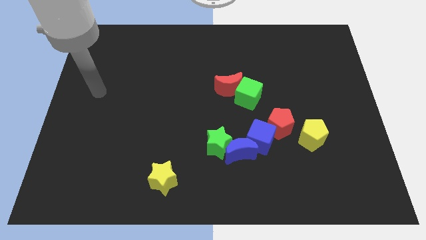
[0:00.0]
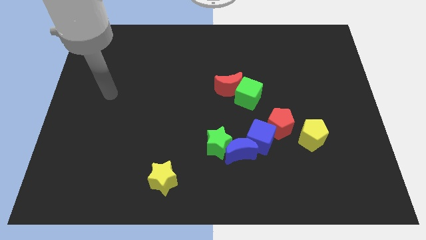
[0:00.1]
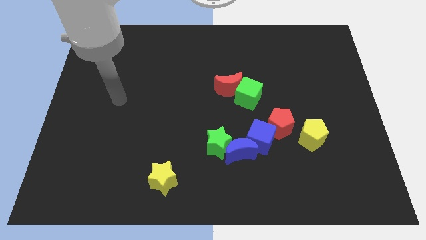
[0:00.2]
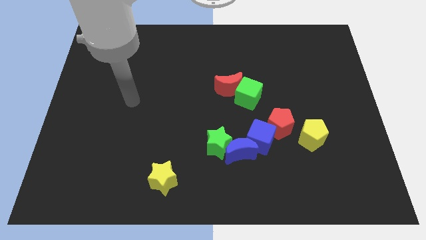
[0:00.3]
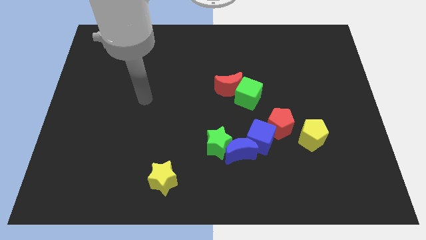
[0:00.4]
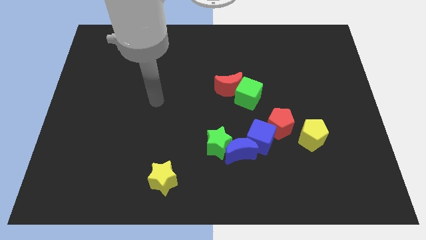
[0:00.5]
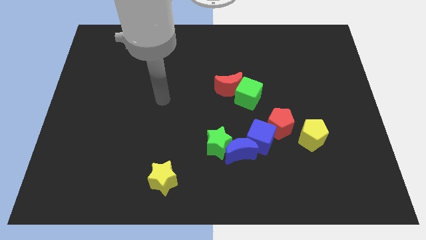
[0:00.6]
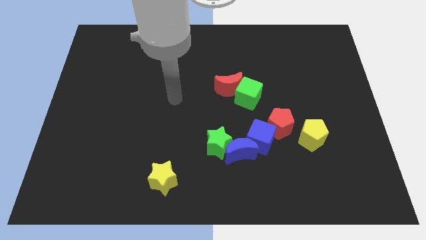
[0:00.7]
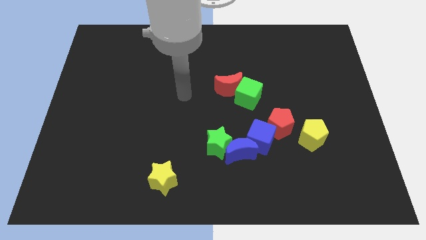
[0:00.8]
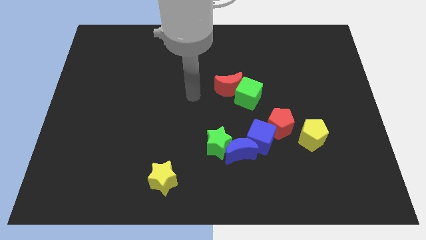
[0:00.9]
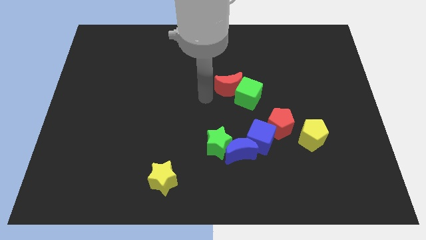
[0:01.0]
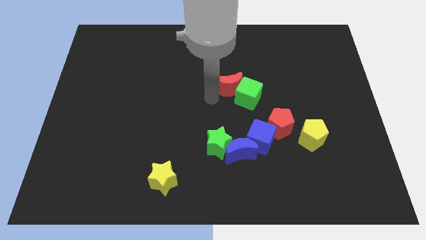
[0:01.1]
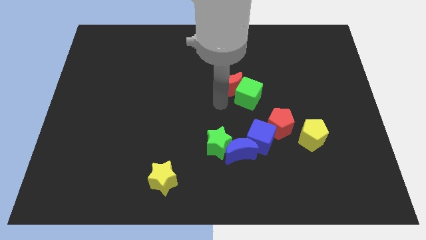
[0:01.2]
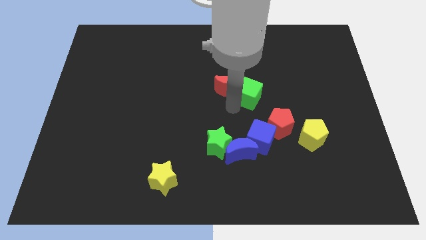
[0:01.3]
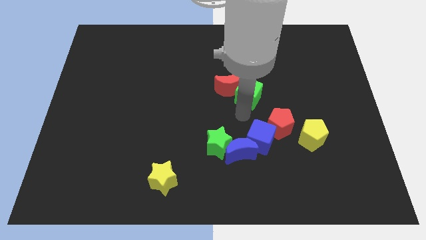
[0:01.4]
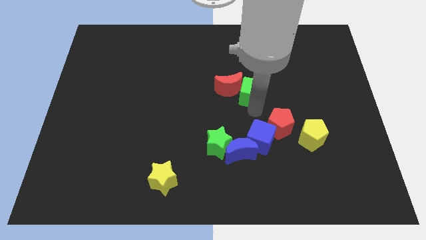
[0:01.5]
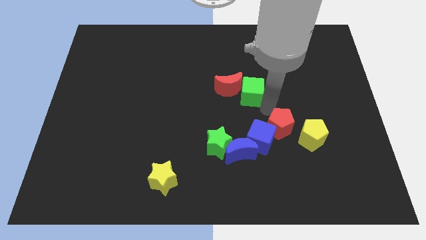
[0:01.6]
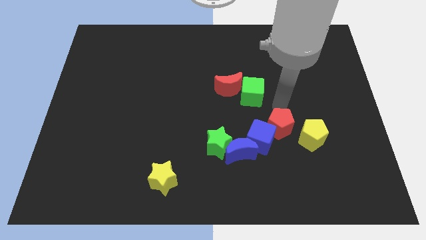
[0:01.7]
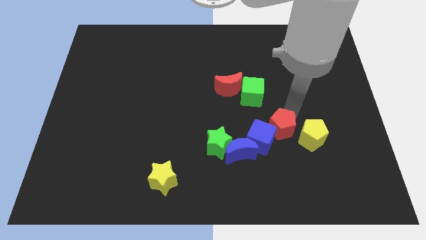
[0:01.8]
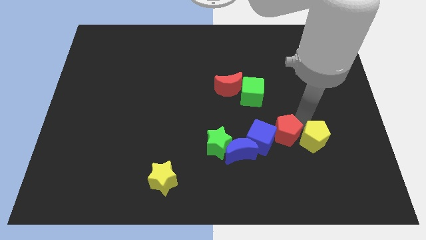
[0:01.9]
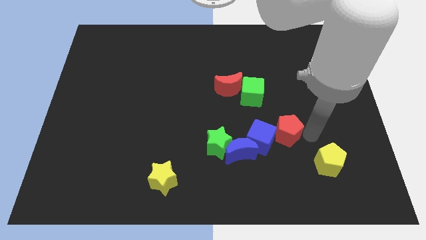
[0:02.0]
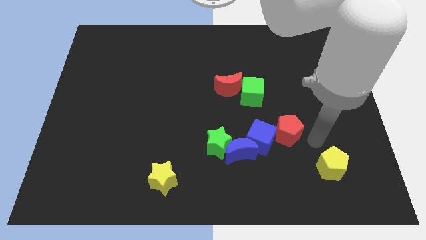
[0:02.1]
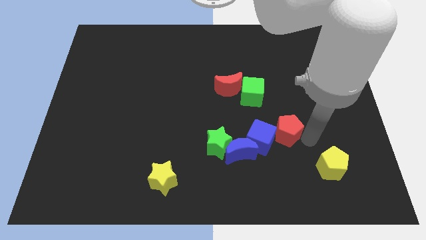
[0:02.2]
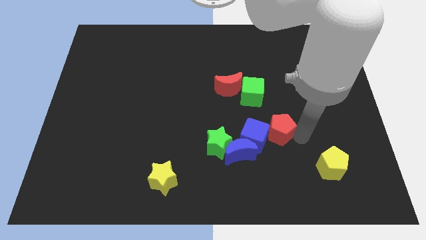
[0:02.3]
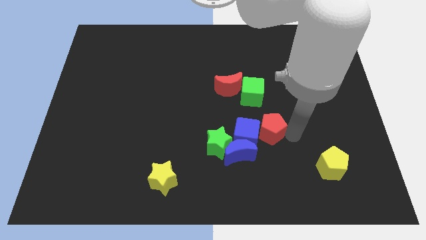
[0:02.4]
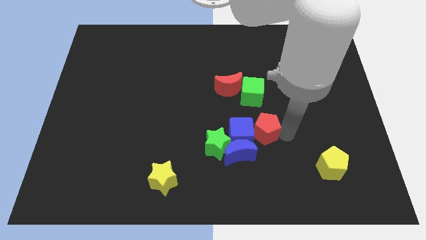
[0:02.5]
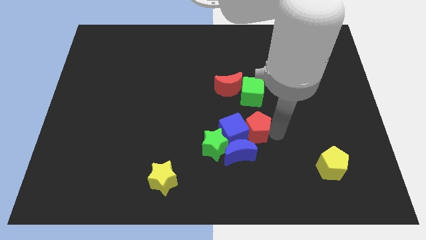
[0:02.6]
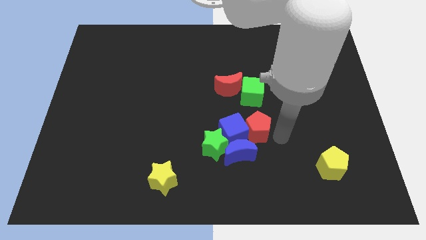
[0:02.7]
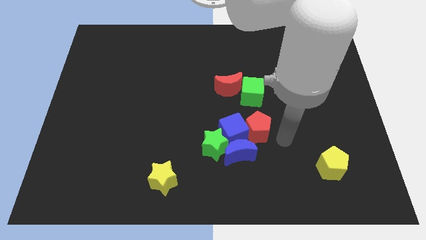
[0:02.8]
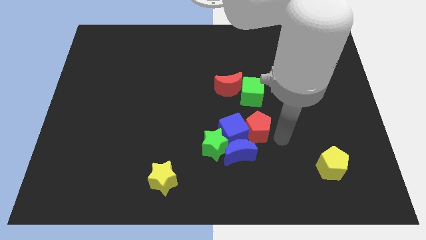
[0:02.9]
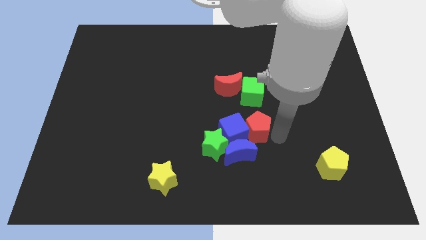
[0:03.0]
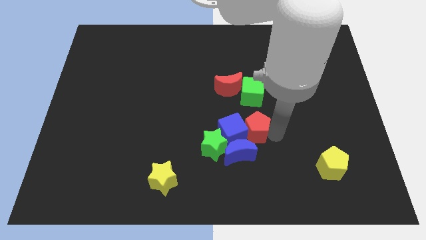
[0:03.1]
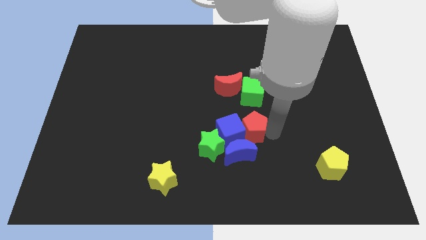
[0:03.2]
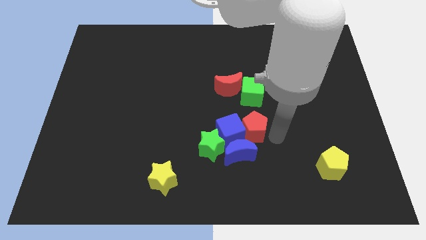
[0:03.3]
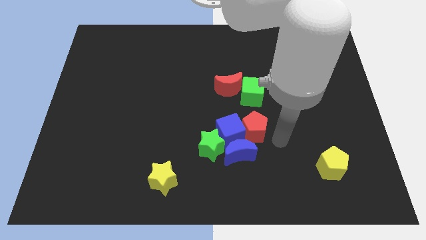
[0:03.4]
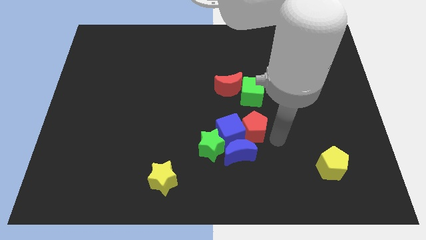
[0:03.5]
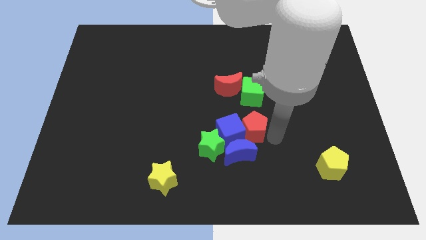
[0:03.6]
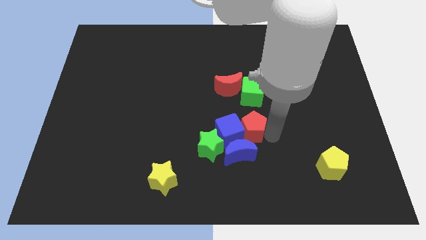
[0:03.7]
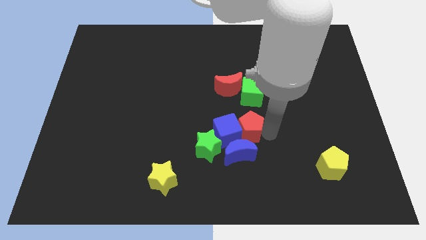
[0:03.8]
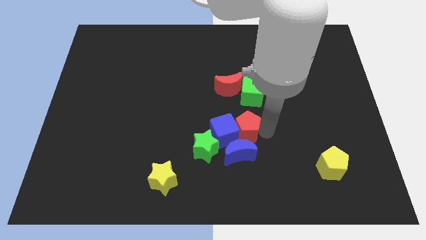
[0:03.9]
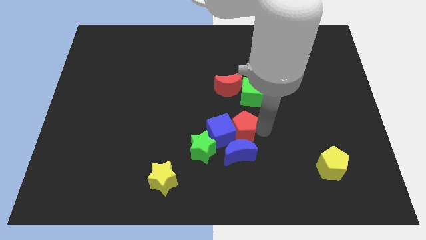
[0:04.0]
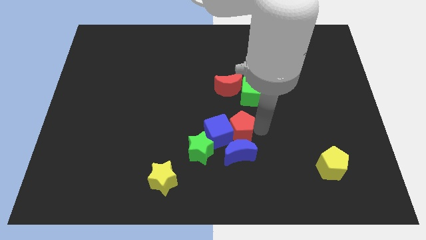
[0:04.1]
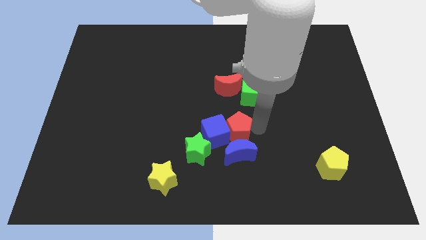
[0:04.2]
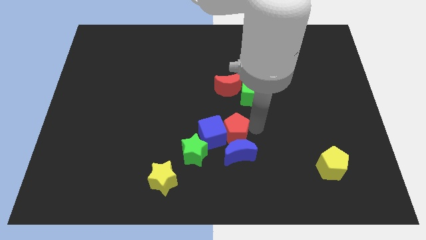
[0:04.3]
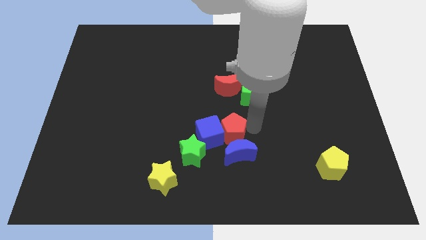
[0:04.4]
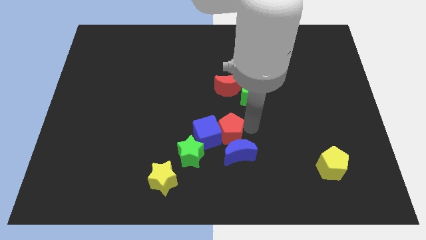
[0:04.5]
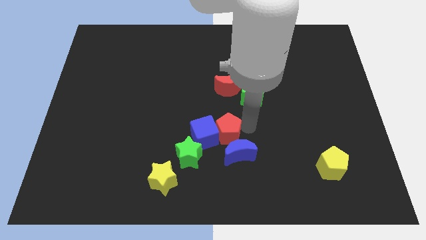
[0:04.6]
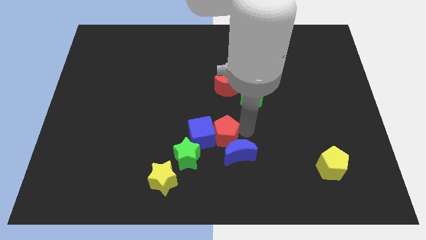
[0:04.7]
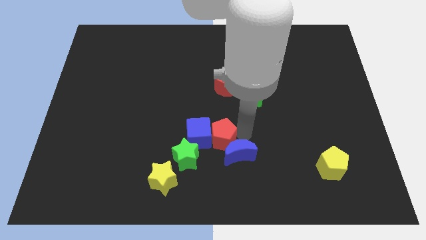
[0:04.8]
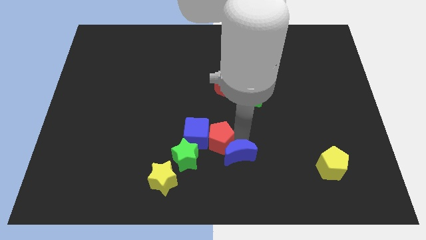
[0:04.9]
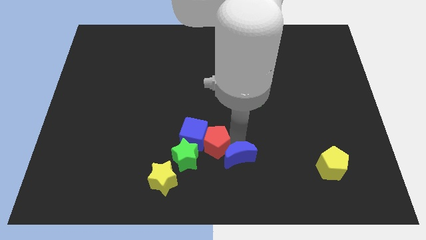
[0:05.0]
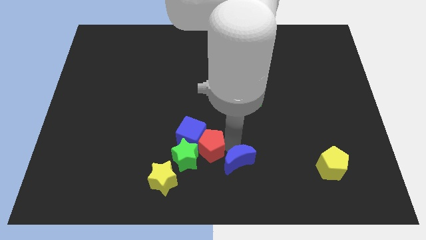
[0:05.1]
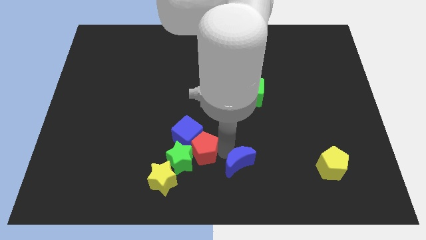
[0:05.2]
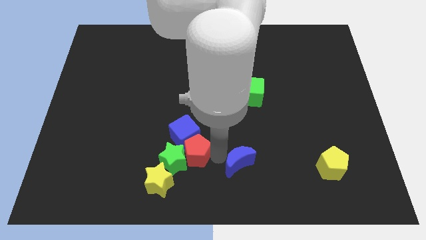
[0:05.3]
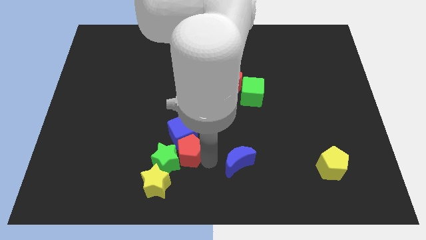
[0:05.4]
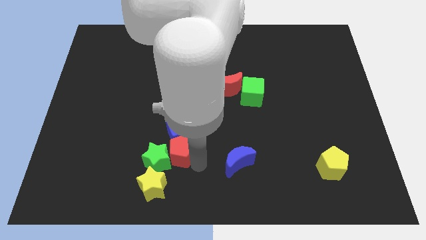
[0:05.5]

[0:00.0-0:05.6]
move the red pentagon to the left

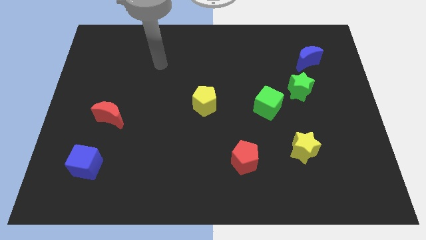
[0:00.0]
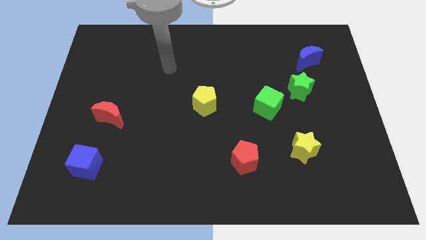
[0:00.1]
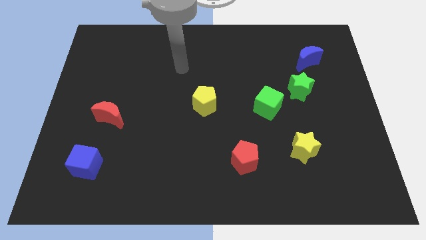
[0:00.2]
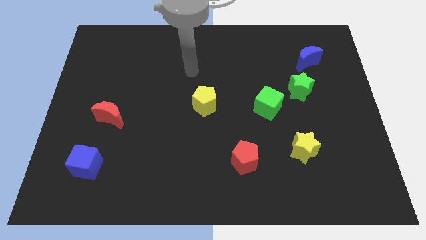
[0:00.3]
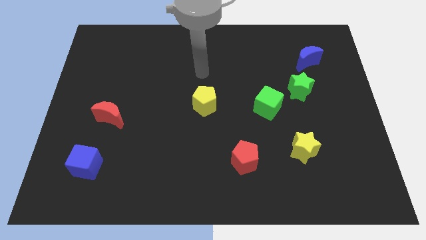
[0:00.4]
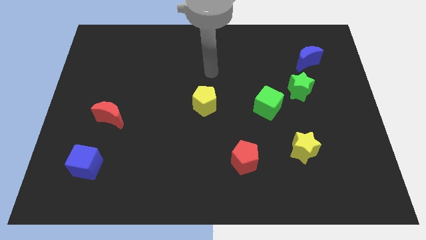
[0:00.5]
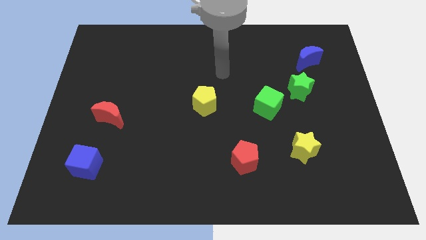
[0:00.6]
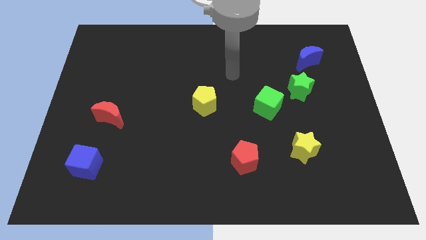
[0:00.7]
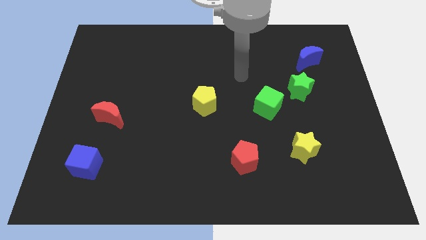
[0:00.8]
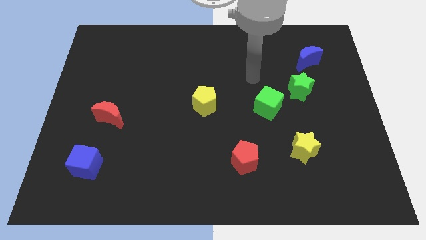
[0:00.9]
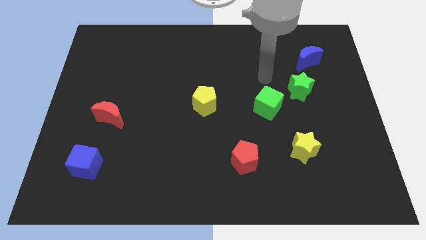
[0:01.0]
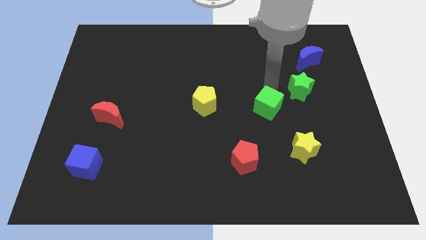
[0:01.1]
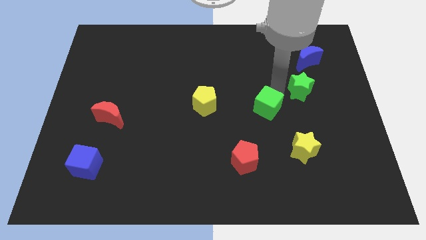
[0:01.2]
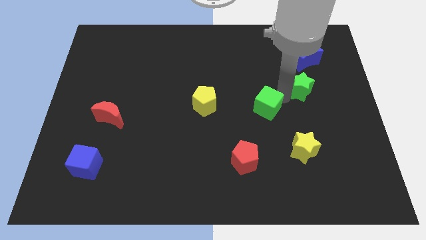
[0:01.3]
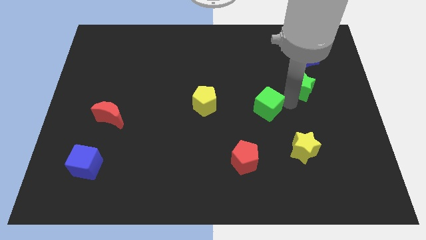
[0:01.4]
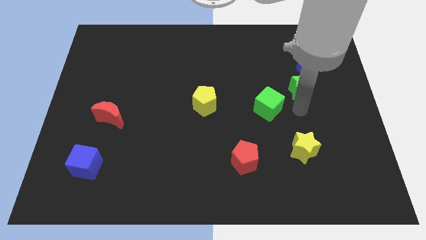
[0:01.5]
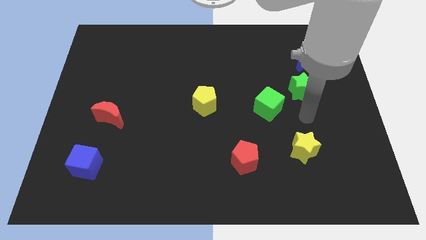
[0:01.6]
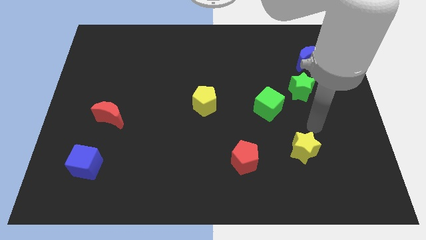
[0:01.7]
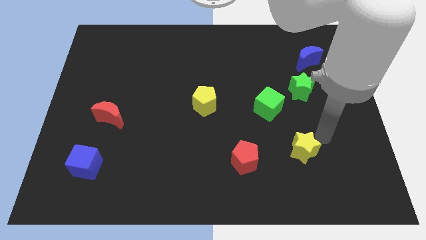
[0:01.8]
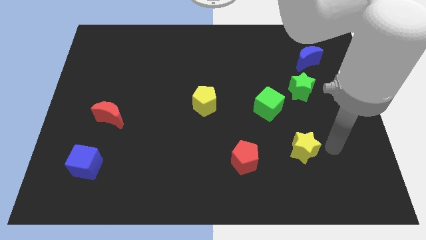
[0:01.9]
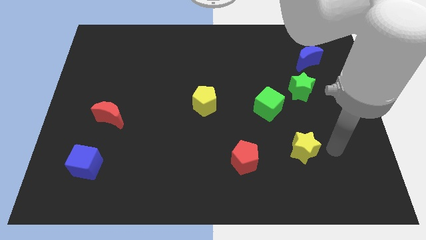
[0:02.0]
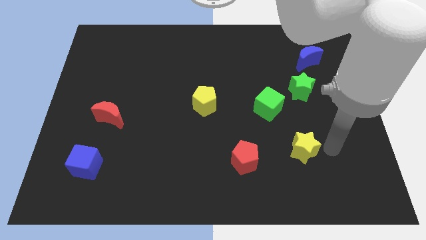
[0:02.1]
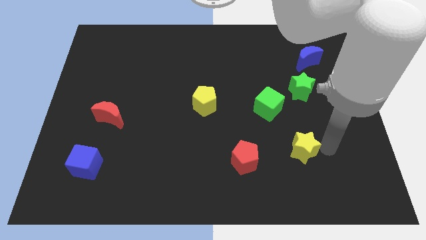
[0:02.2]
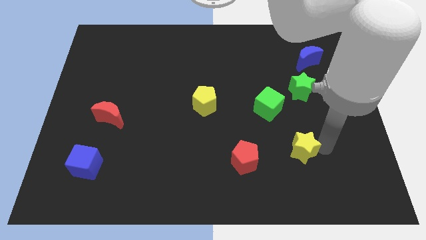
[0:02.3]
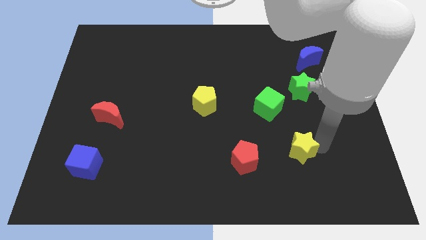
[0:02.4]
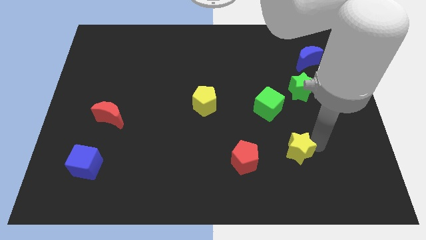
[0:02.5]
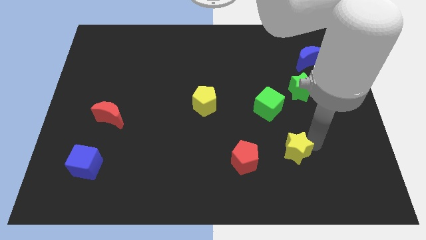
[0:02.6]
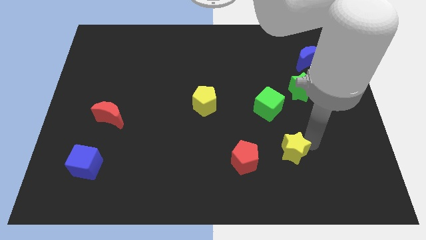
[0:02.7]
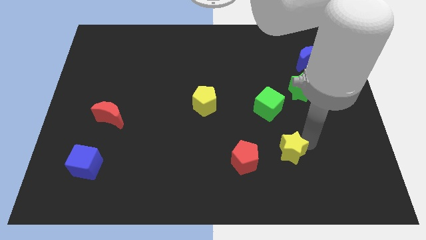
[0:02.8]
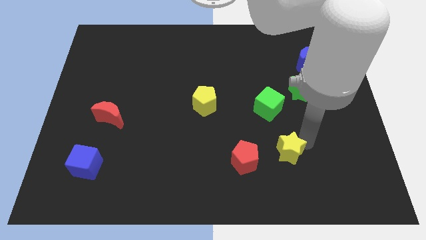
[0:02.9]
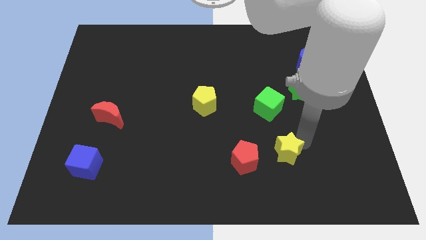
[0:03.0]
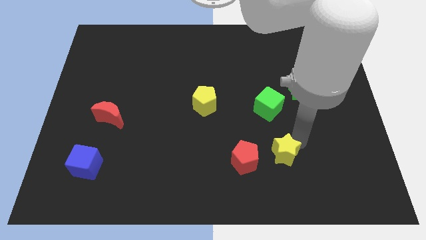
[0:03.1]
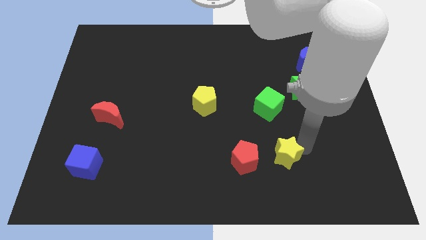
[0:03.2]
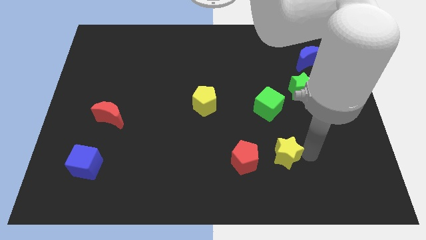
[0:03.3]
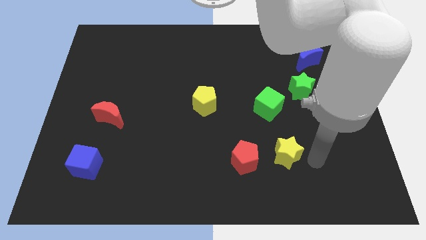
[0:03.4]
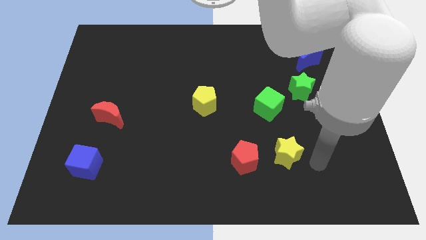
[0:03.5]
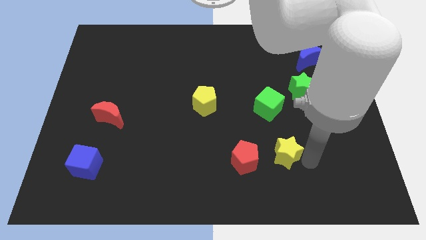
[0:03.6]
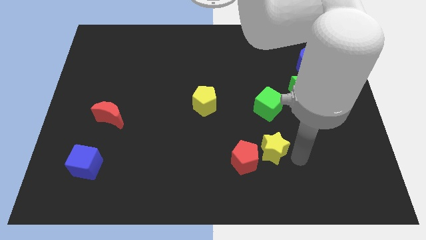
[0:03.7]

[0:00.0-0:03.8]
slide the yellow star a little left
